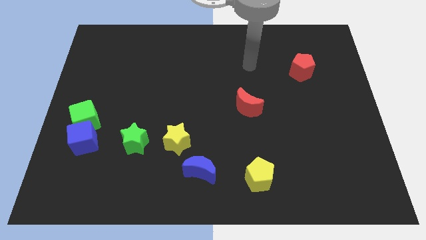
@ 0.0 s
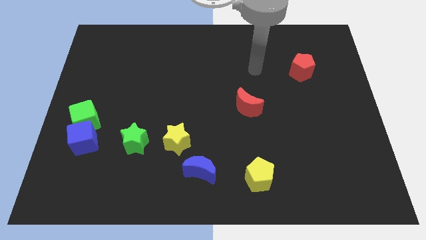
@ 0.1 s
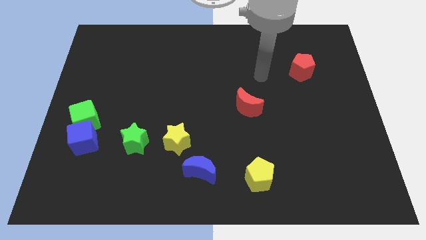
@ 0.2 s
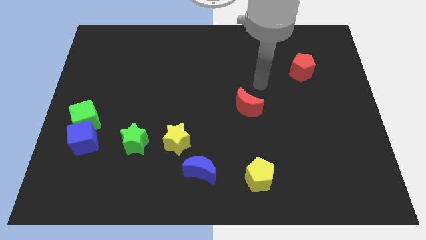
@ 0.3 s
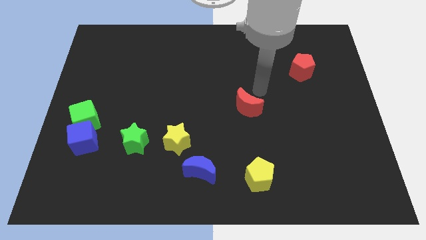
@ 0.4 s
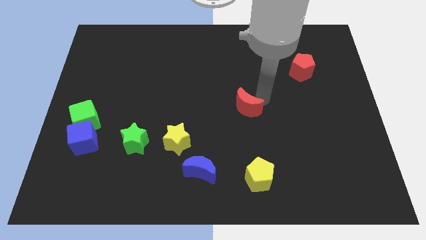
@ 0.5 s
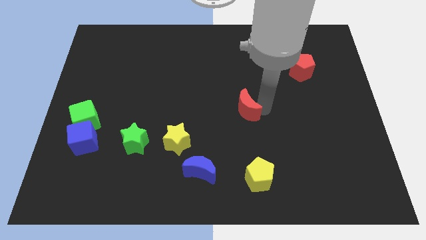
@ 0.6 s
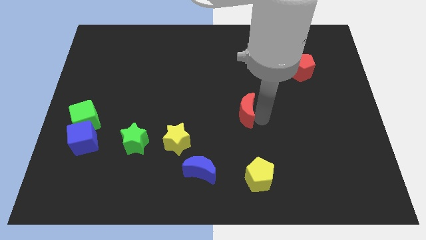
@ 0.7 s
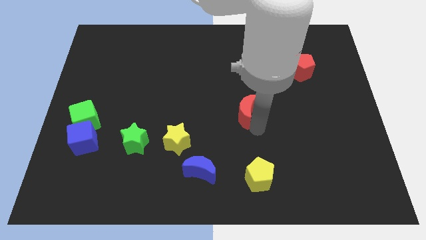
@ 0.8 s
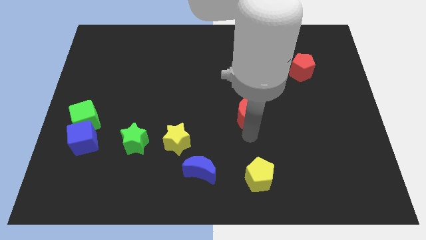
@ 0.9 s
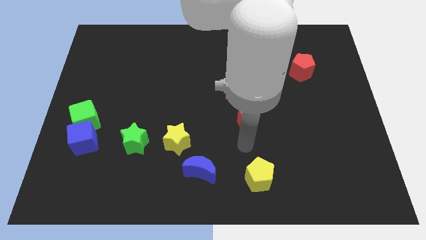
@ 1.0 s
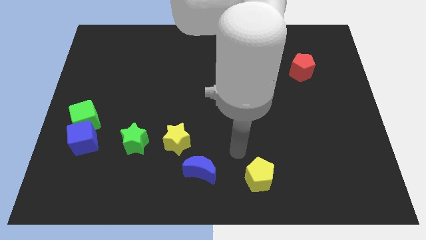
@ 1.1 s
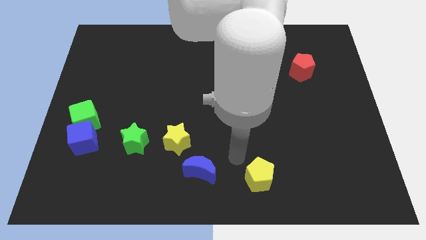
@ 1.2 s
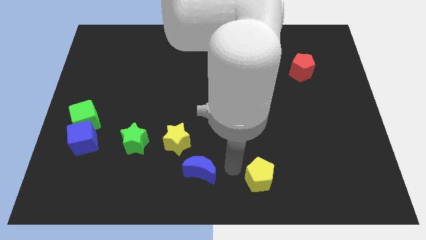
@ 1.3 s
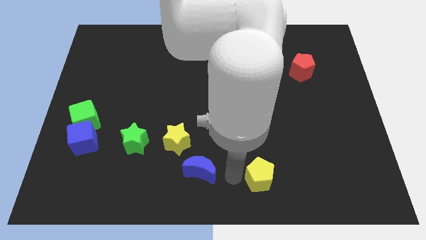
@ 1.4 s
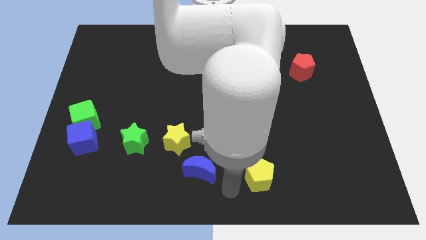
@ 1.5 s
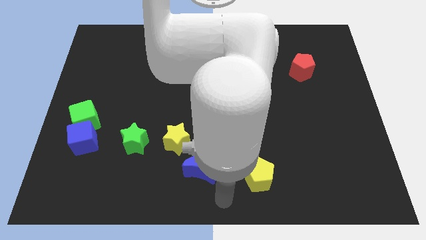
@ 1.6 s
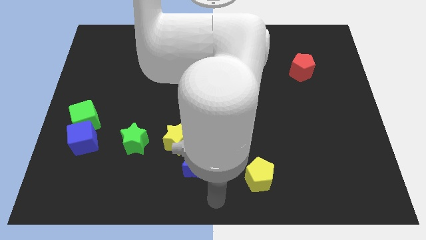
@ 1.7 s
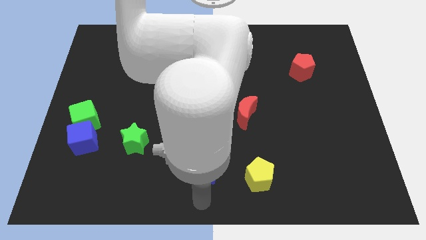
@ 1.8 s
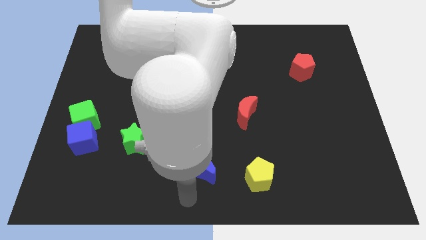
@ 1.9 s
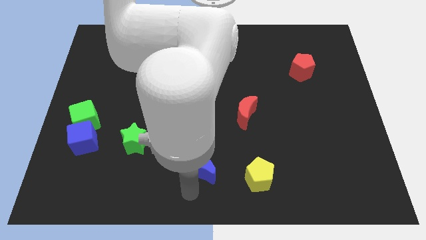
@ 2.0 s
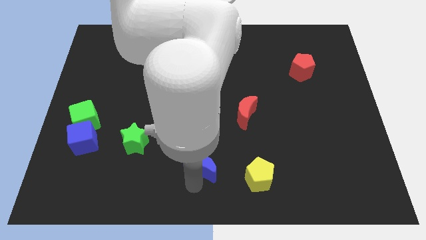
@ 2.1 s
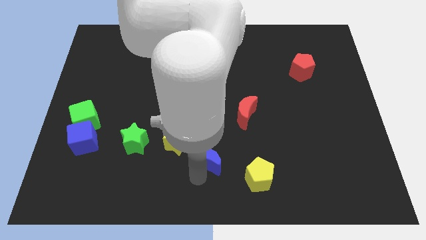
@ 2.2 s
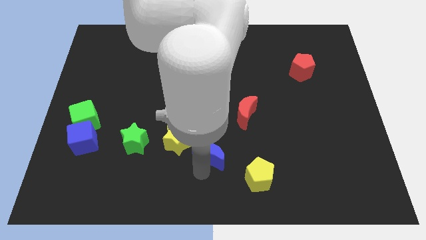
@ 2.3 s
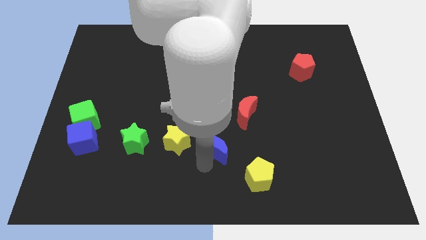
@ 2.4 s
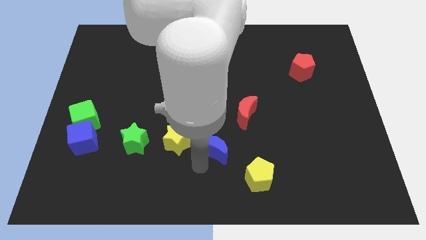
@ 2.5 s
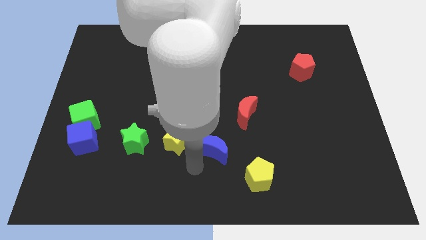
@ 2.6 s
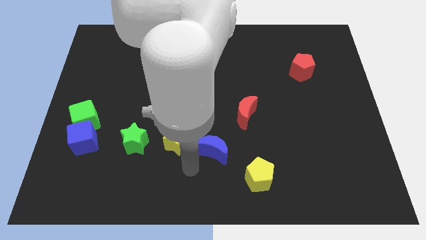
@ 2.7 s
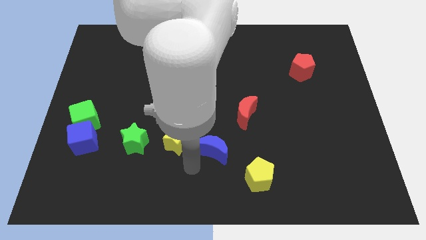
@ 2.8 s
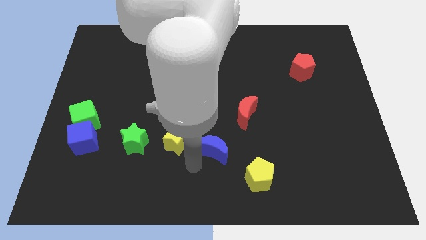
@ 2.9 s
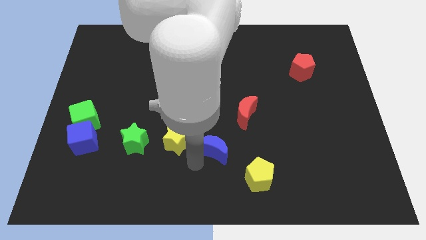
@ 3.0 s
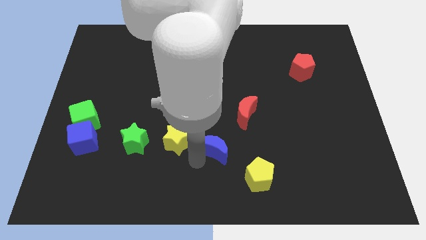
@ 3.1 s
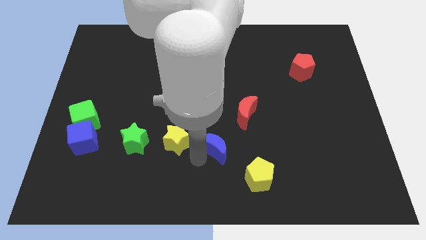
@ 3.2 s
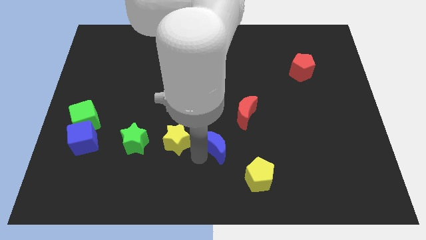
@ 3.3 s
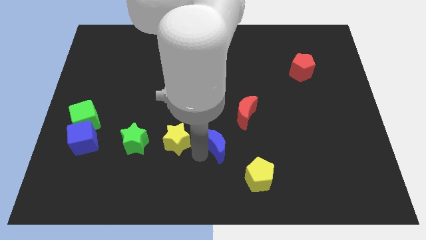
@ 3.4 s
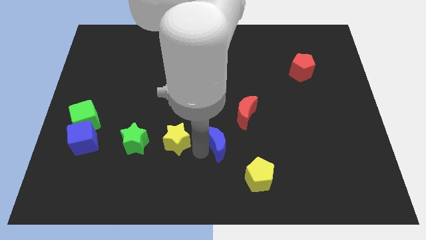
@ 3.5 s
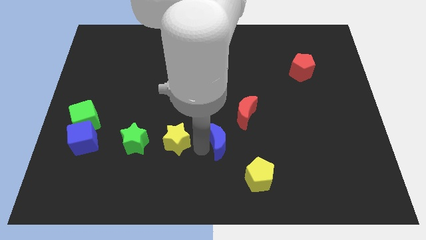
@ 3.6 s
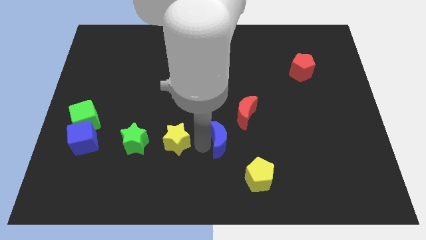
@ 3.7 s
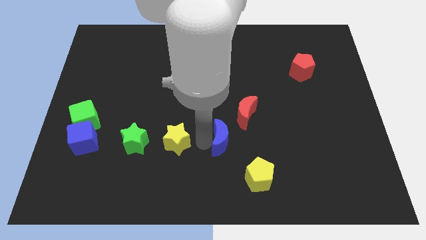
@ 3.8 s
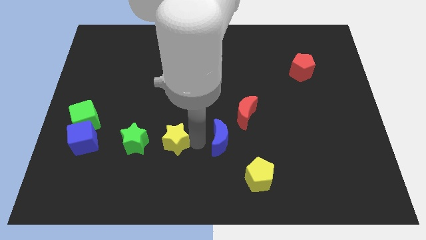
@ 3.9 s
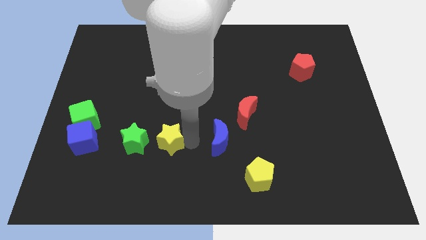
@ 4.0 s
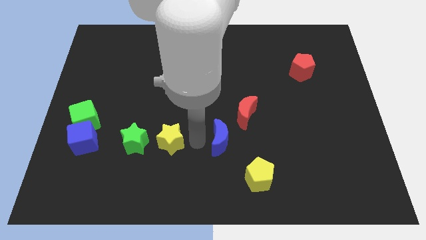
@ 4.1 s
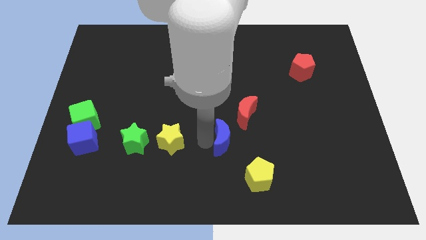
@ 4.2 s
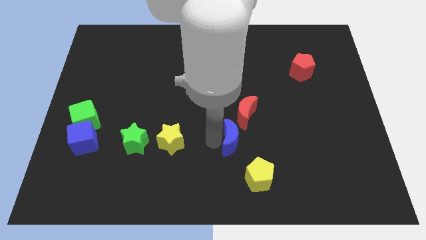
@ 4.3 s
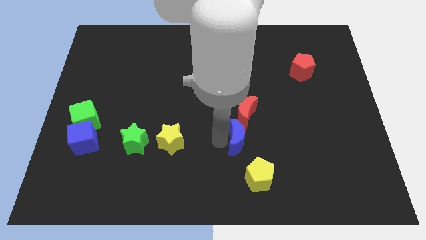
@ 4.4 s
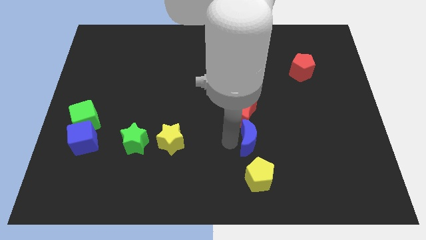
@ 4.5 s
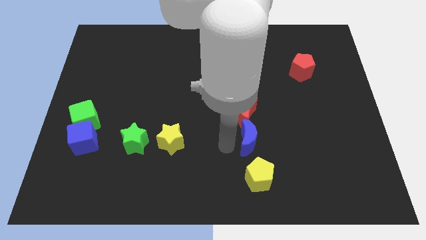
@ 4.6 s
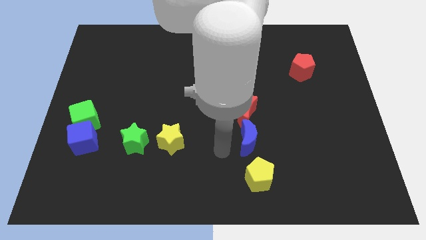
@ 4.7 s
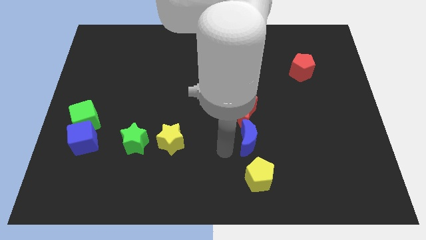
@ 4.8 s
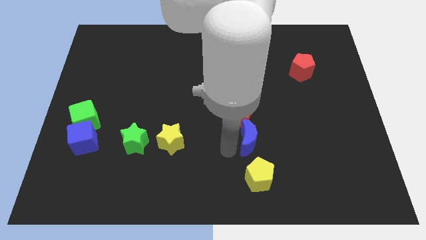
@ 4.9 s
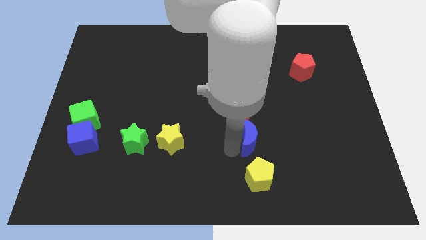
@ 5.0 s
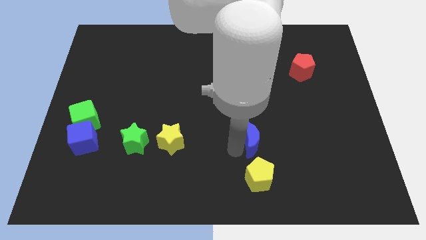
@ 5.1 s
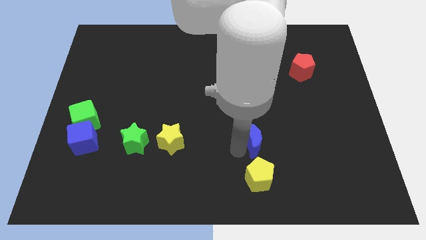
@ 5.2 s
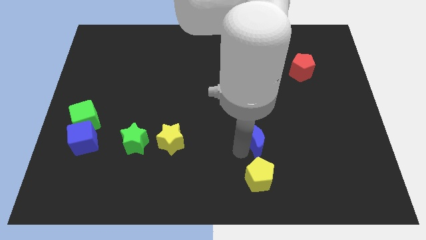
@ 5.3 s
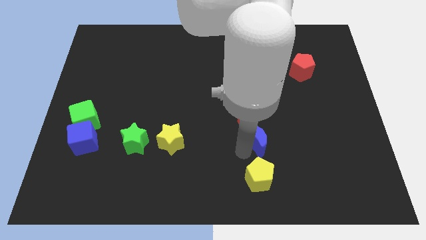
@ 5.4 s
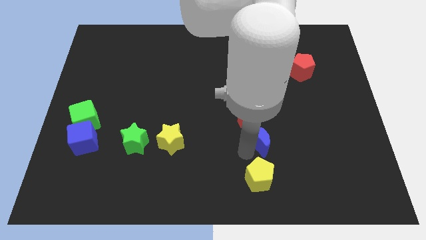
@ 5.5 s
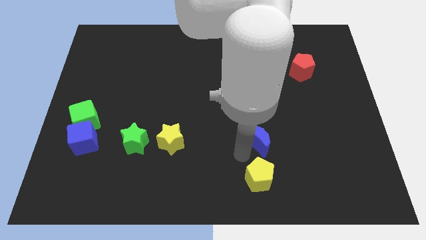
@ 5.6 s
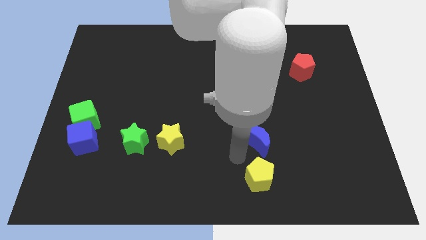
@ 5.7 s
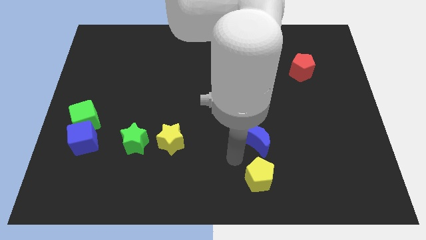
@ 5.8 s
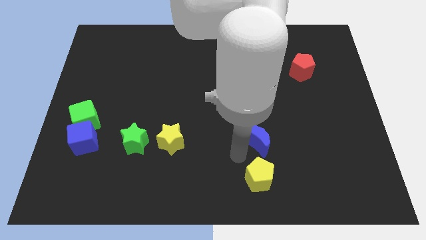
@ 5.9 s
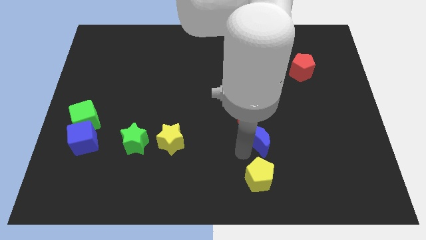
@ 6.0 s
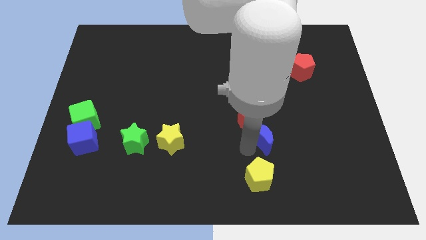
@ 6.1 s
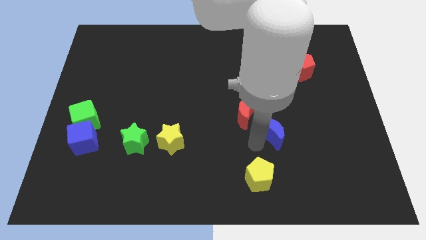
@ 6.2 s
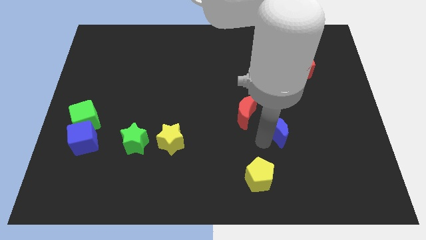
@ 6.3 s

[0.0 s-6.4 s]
put the blue moon to the right side of the red moon
